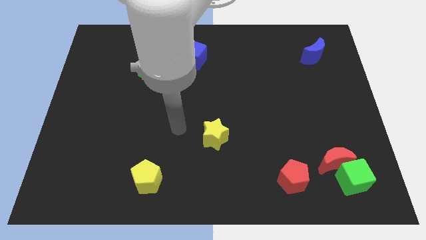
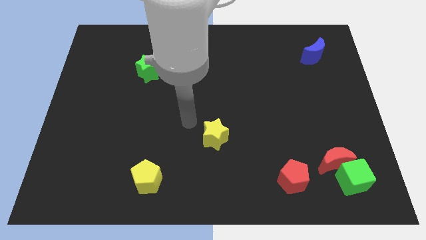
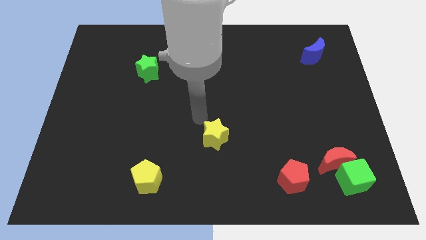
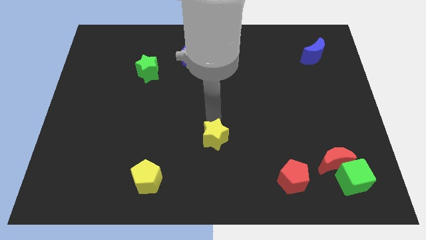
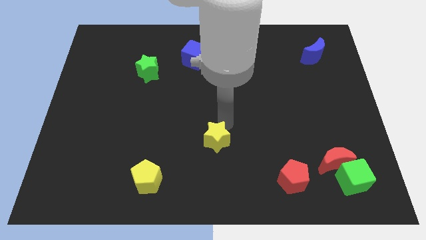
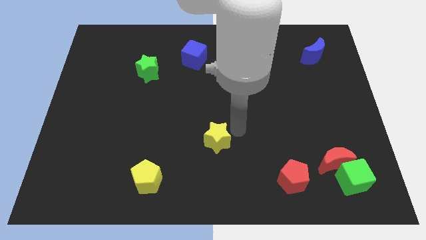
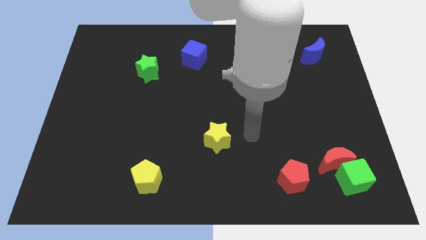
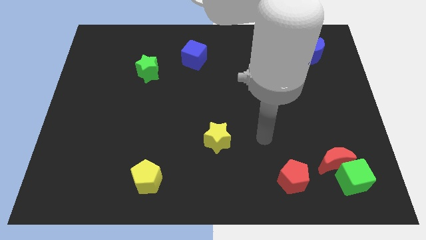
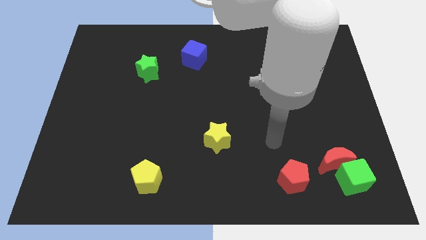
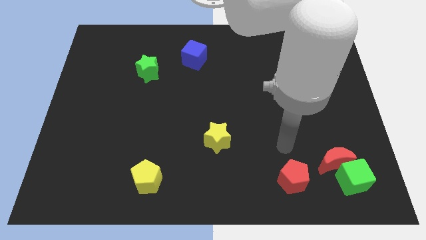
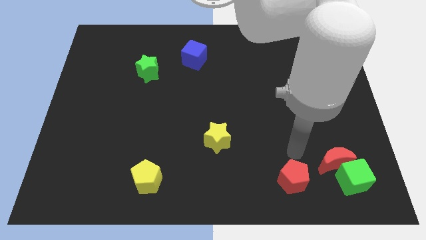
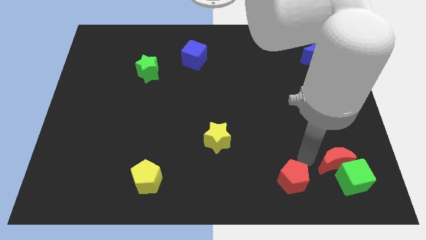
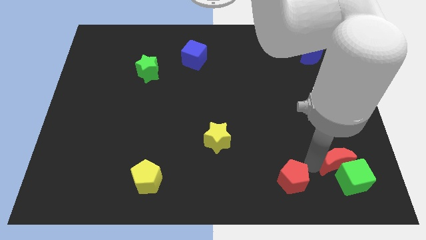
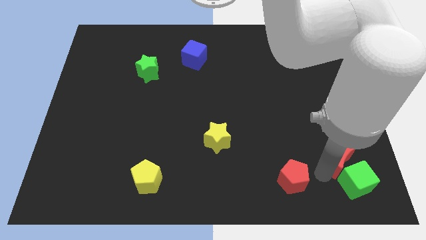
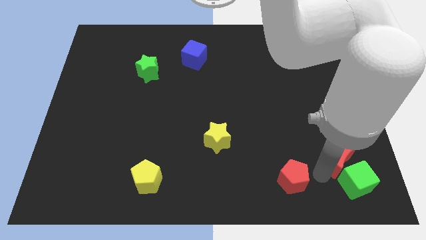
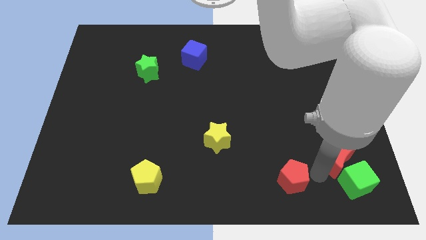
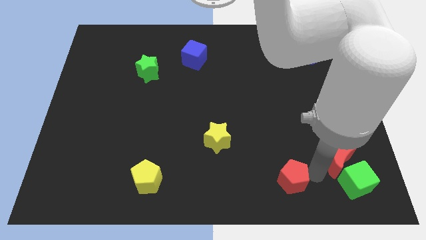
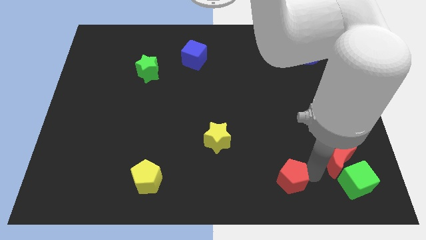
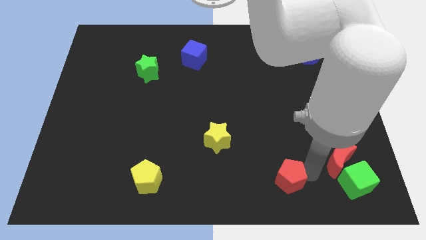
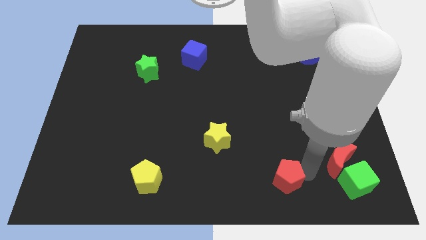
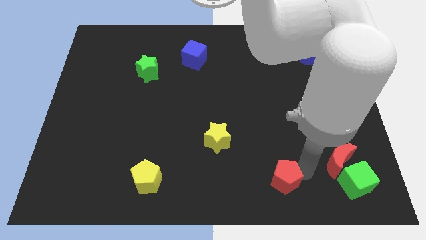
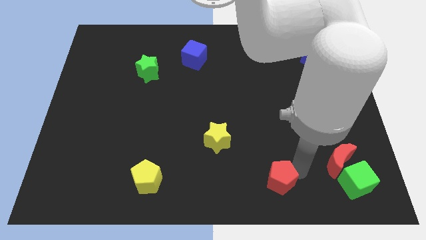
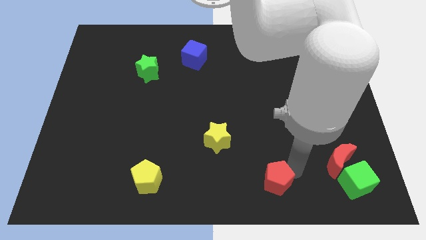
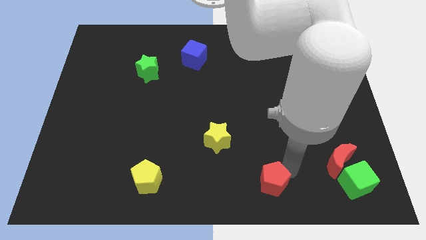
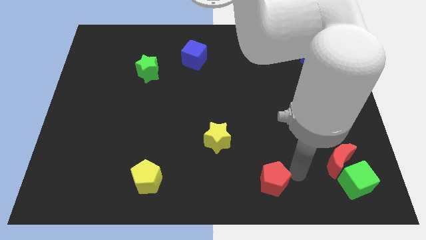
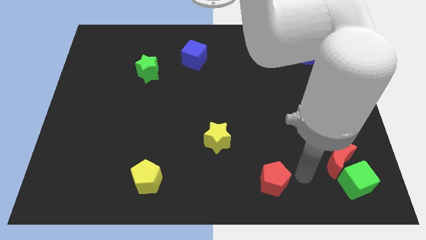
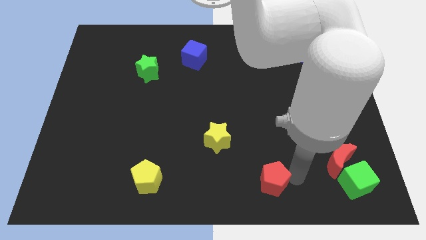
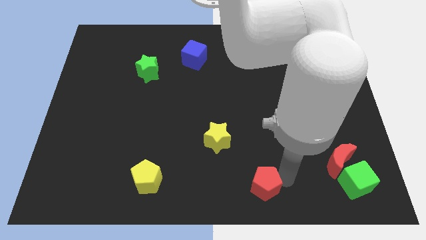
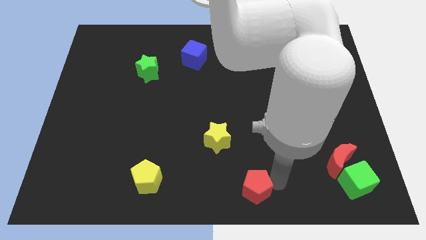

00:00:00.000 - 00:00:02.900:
push the red pentagon left a little bit

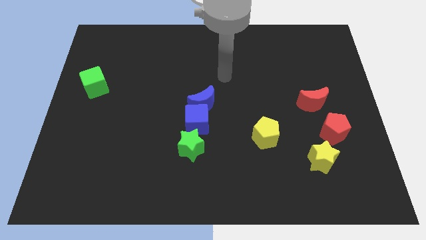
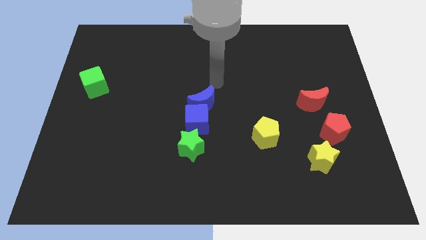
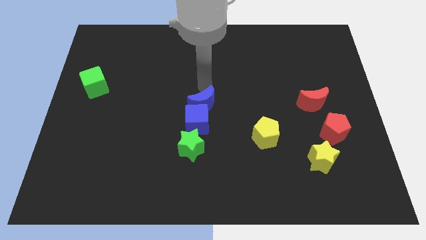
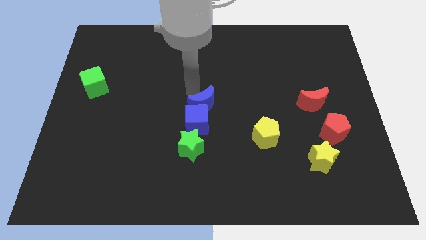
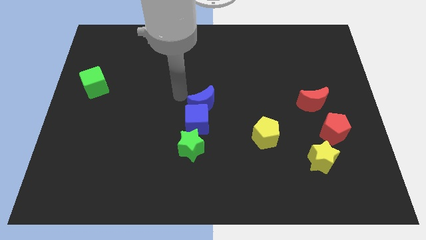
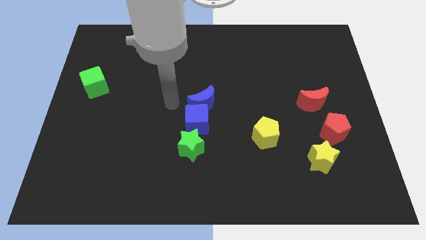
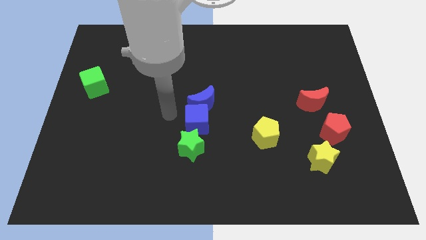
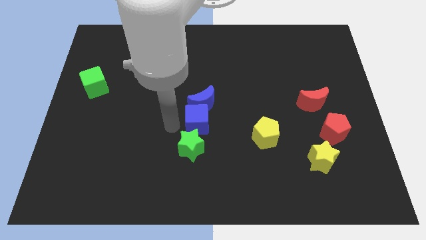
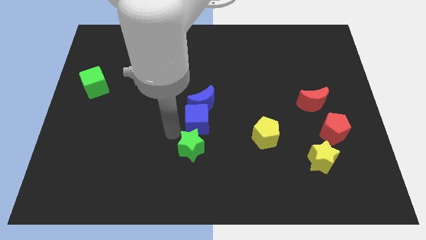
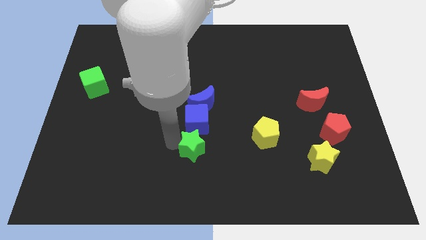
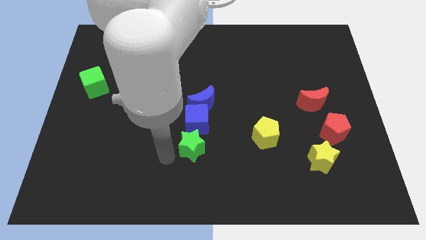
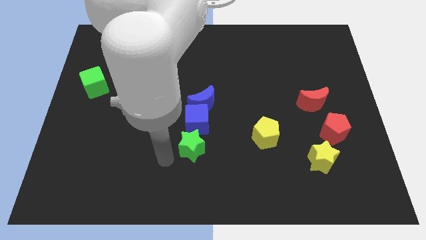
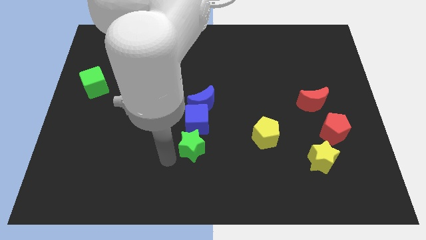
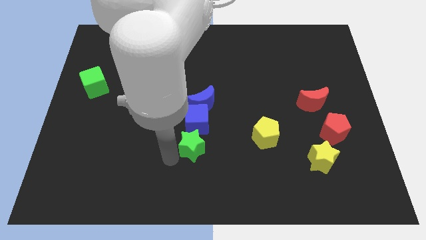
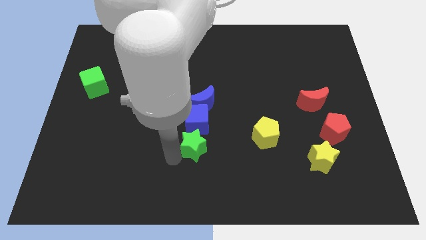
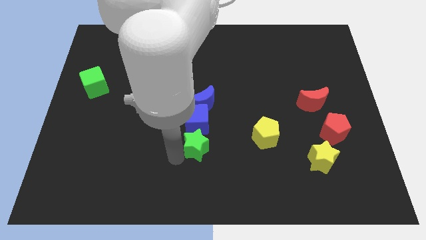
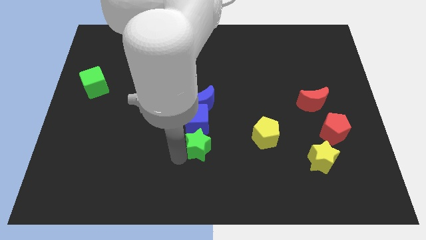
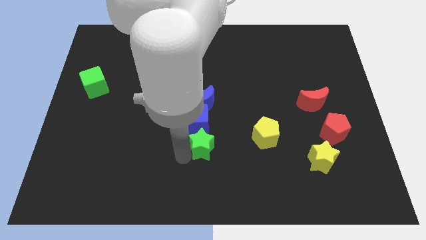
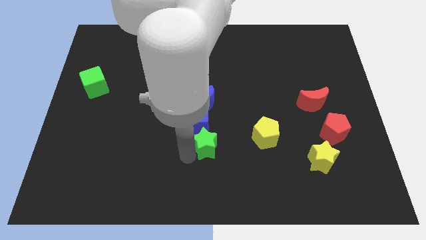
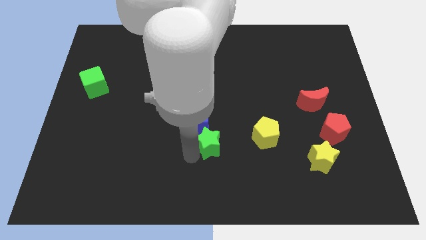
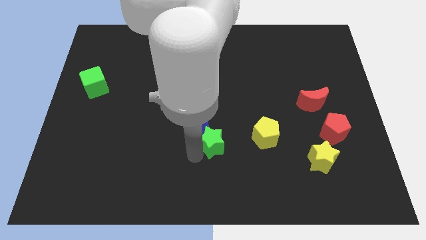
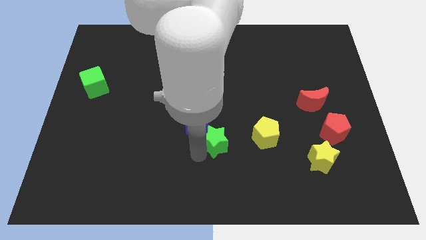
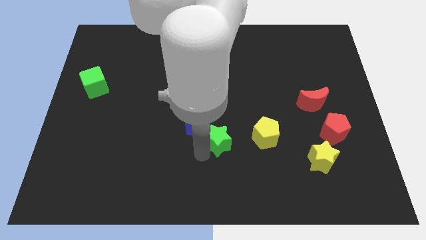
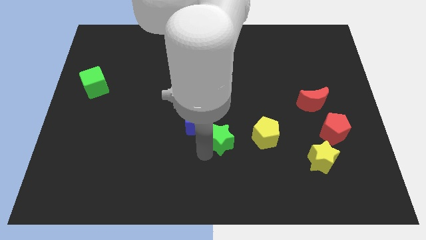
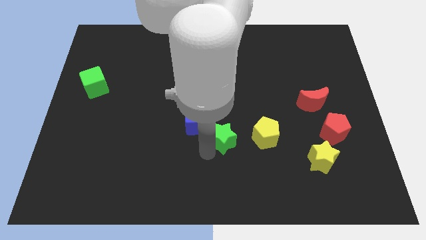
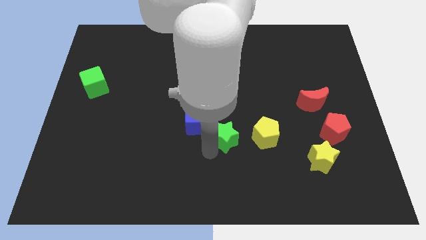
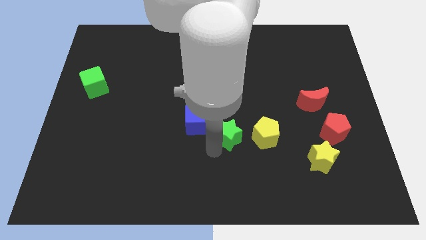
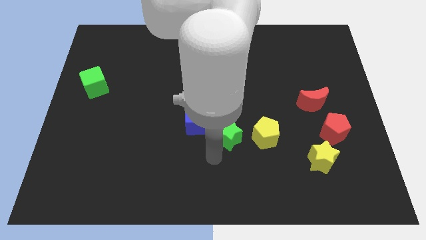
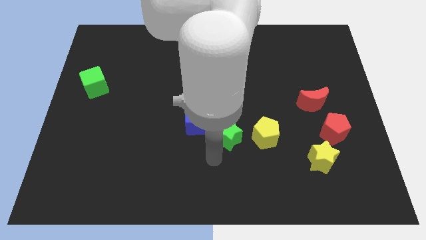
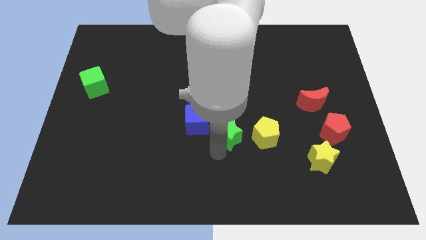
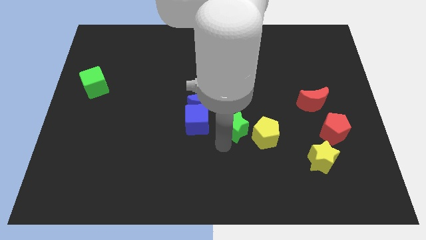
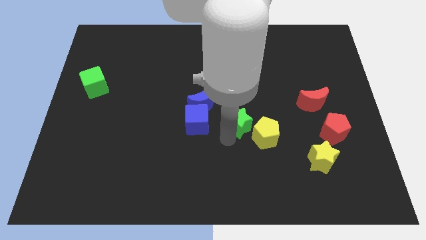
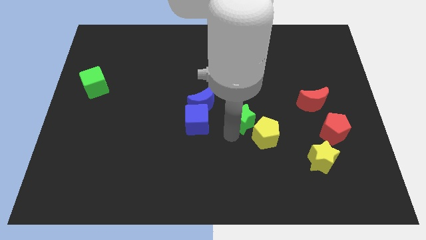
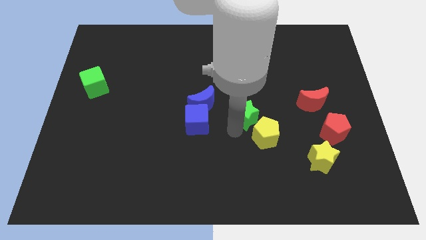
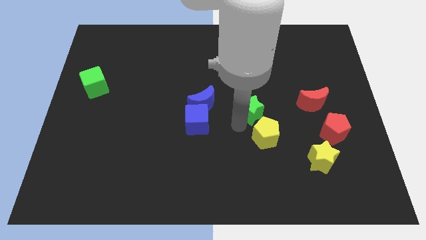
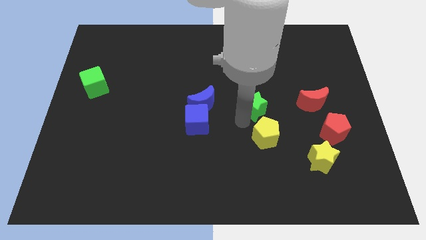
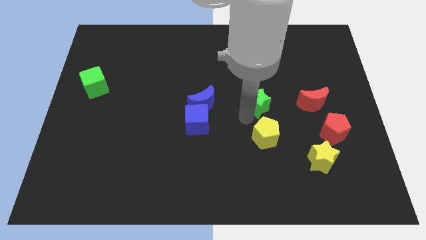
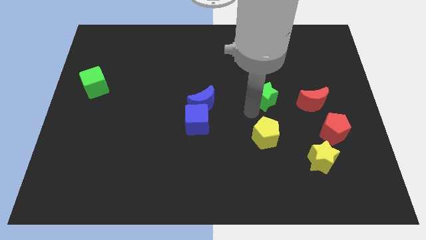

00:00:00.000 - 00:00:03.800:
move the green star up and right diagonally

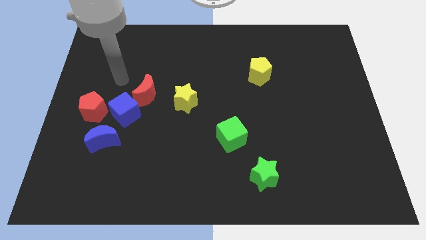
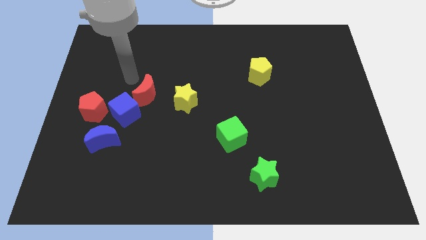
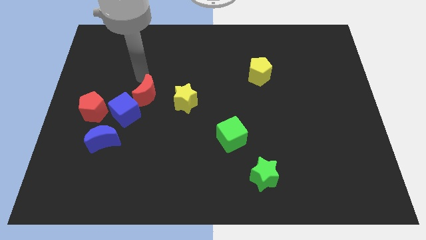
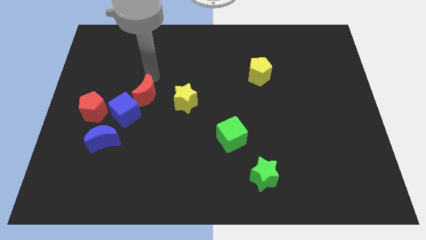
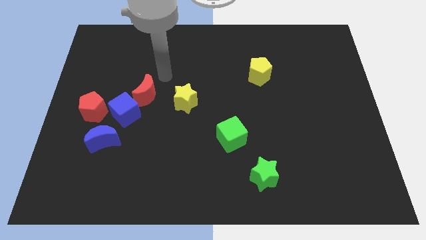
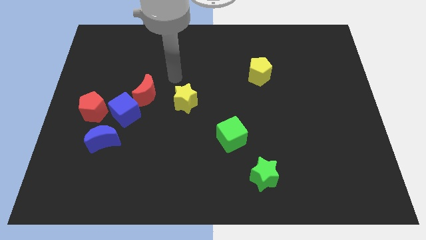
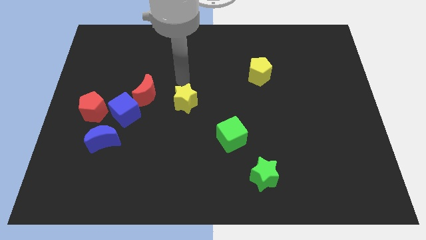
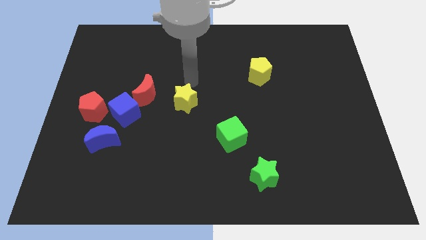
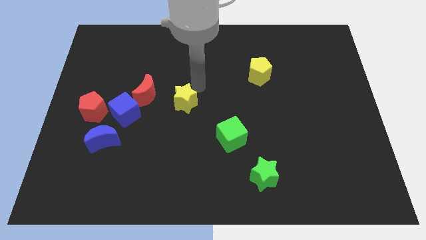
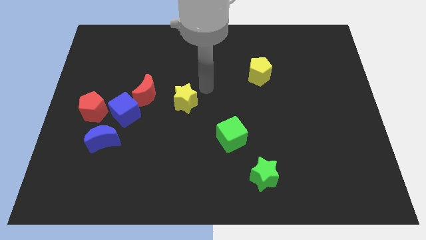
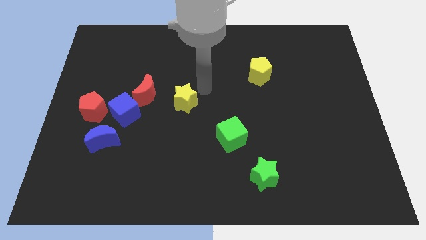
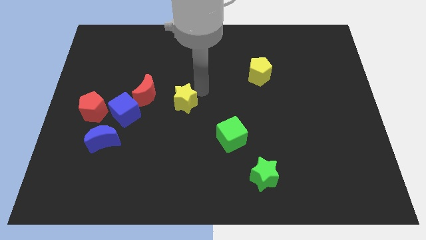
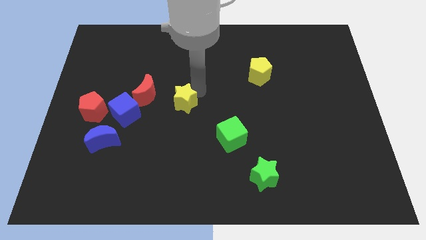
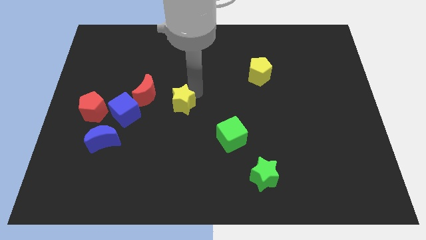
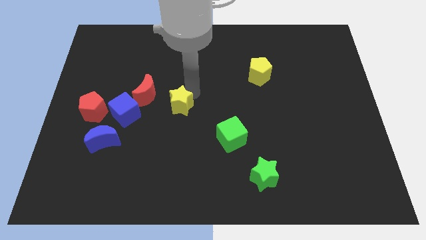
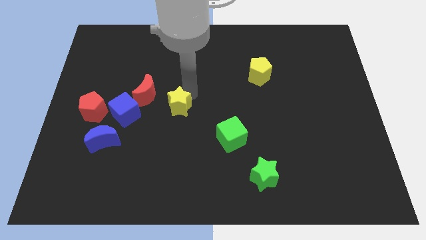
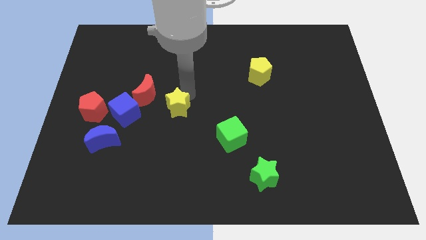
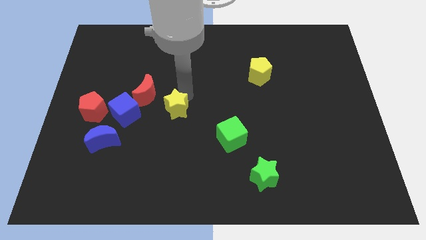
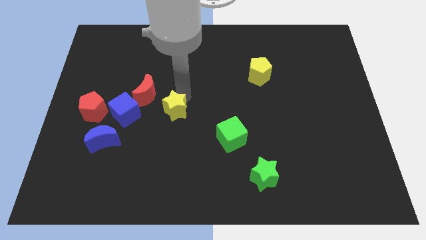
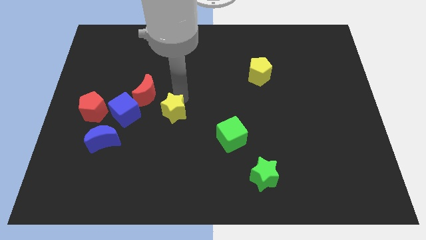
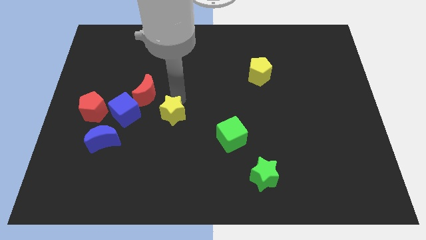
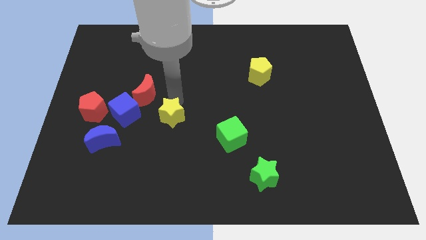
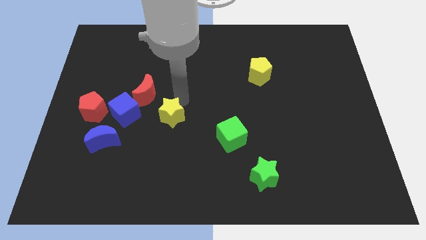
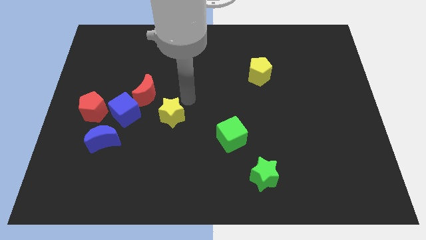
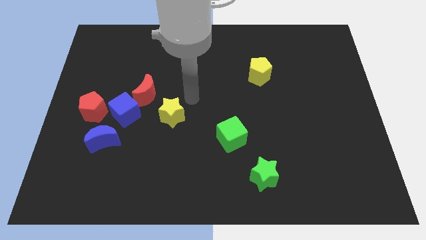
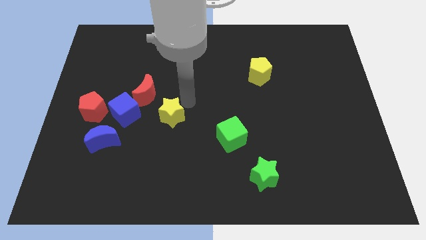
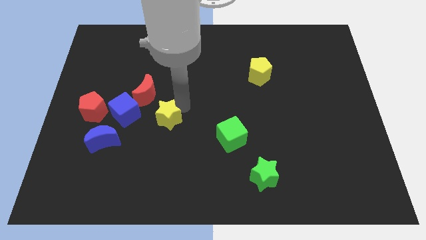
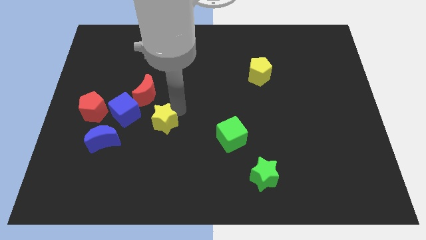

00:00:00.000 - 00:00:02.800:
push the yellow star a little bit down and then left
